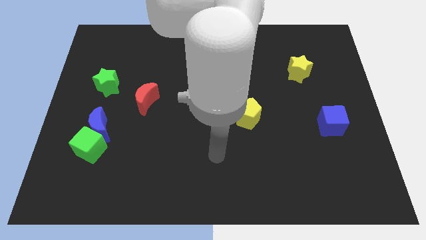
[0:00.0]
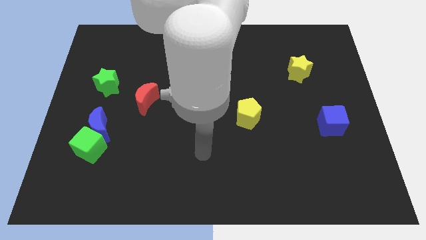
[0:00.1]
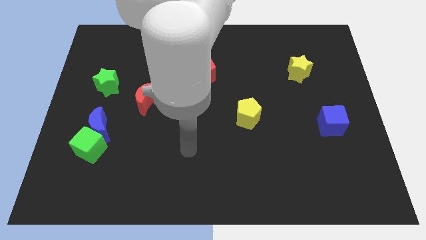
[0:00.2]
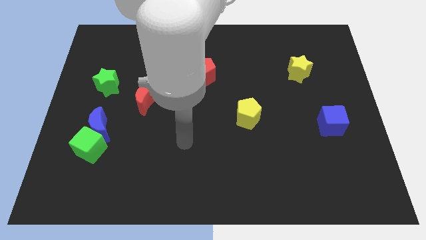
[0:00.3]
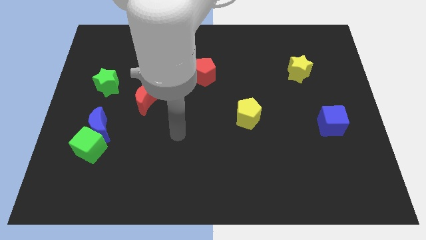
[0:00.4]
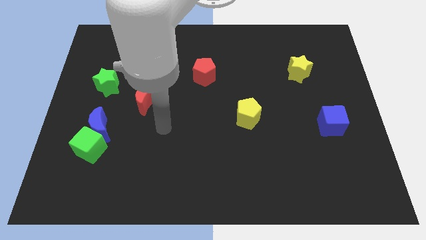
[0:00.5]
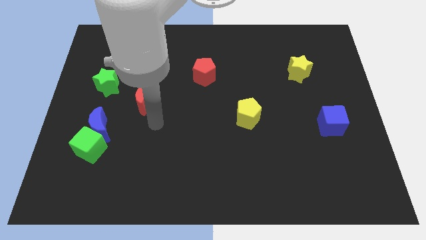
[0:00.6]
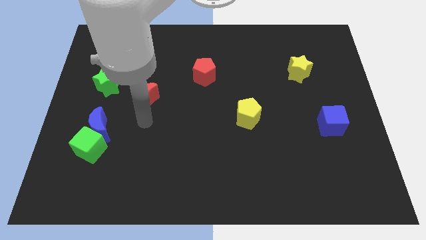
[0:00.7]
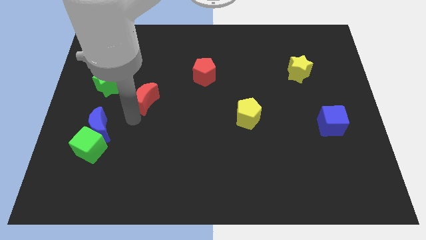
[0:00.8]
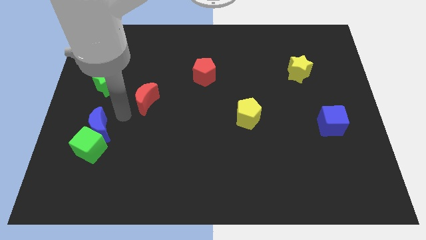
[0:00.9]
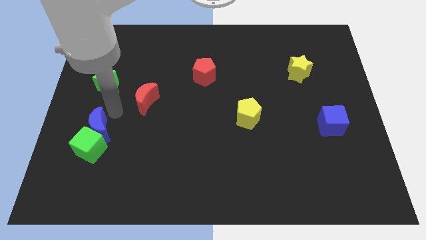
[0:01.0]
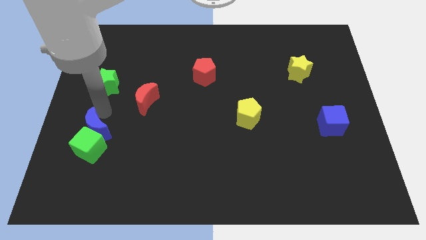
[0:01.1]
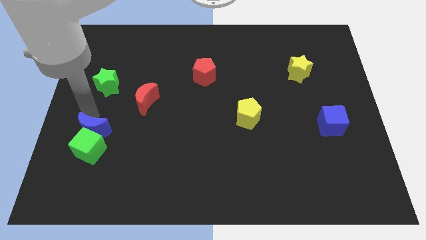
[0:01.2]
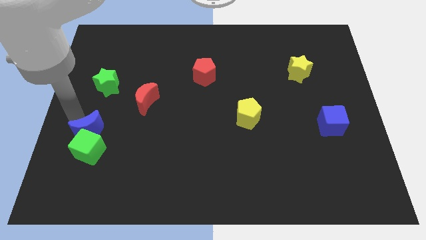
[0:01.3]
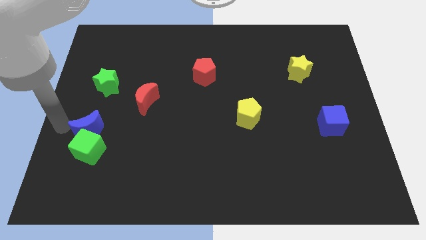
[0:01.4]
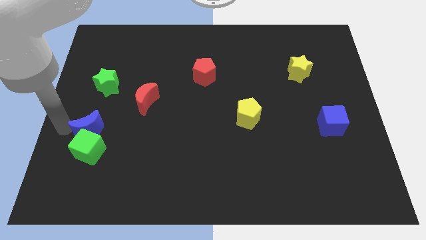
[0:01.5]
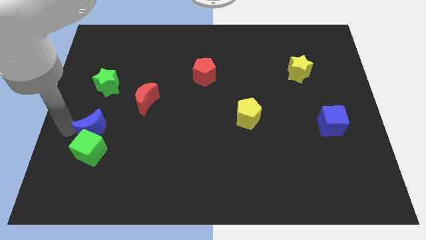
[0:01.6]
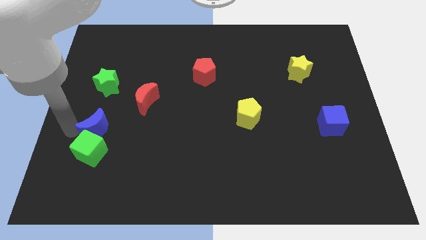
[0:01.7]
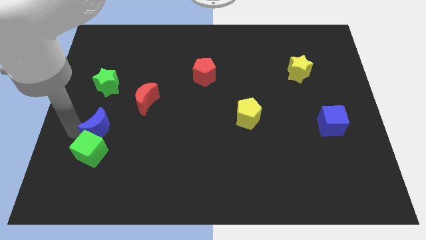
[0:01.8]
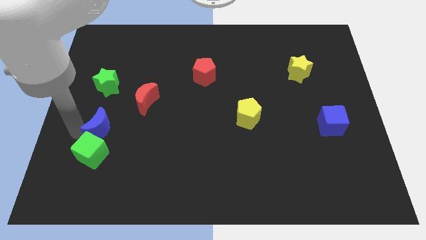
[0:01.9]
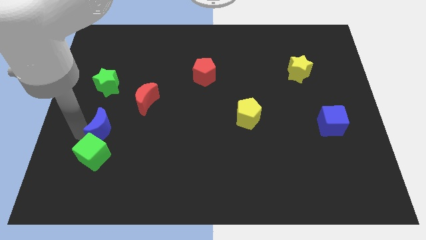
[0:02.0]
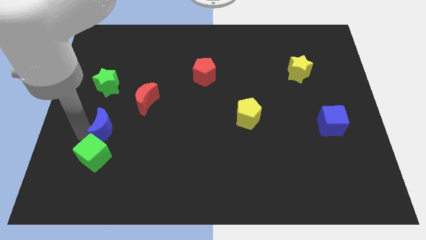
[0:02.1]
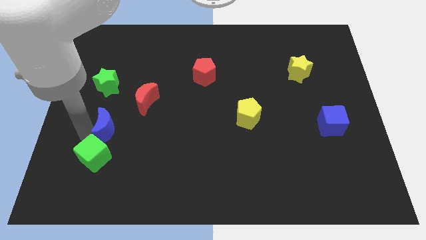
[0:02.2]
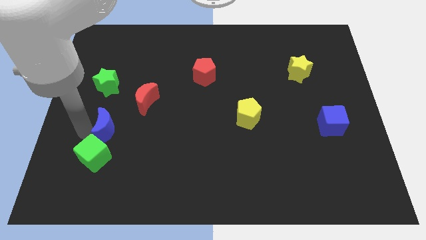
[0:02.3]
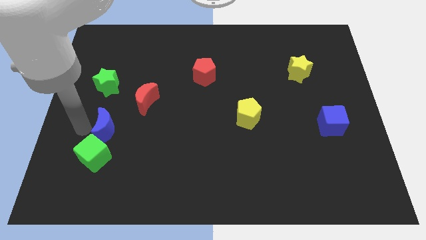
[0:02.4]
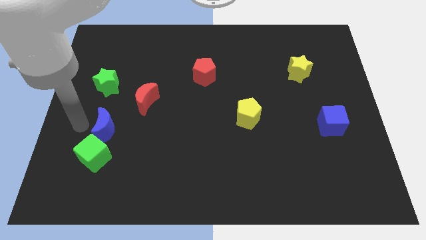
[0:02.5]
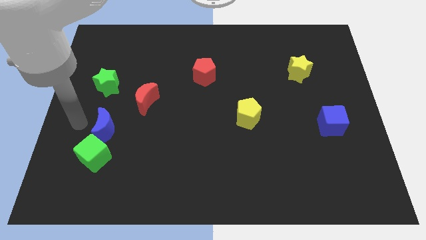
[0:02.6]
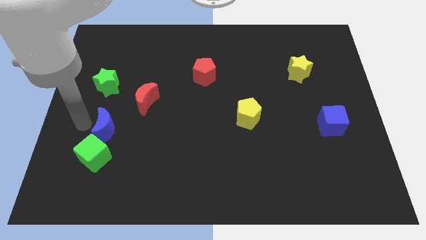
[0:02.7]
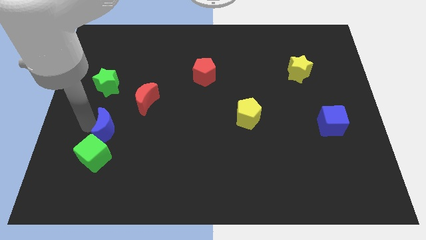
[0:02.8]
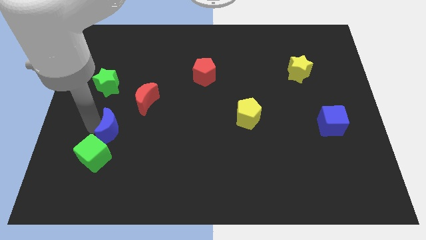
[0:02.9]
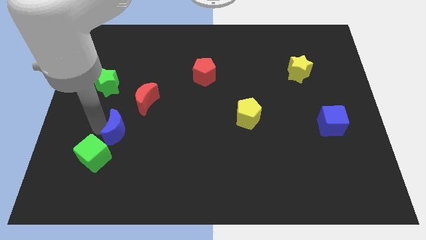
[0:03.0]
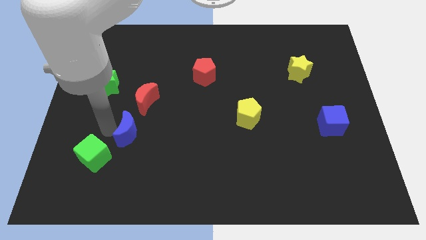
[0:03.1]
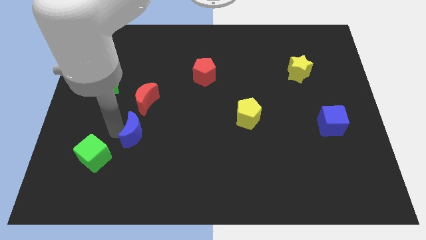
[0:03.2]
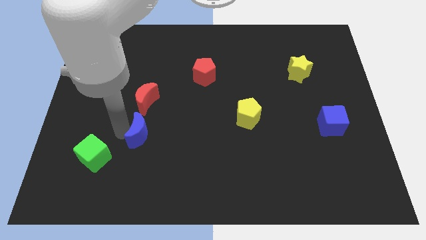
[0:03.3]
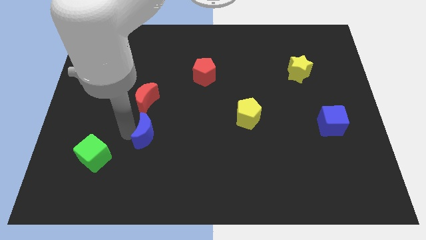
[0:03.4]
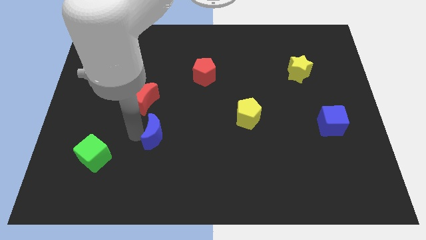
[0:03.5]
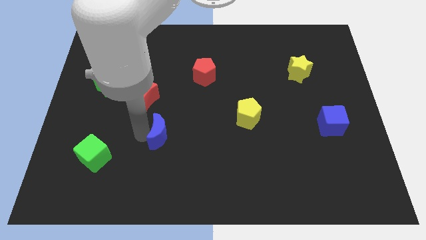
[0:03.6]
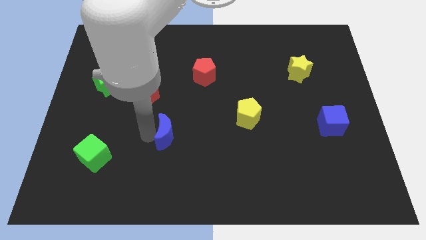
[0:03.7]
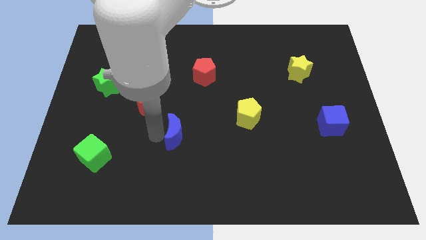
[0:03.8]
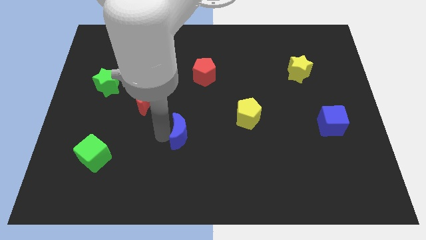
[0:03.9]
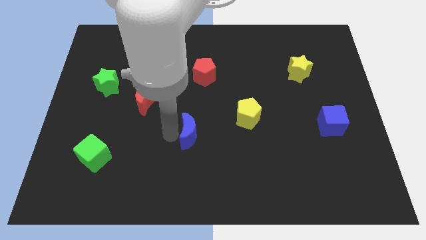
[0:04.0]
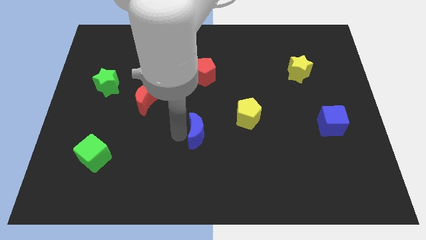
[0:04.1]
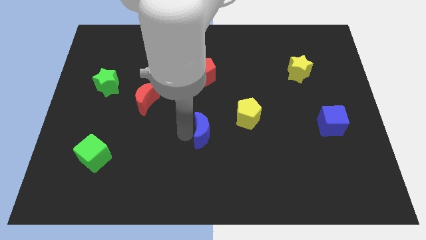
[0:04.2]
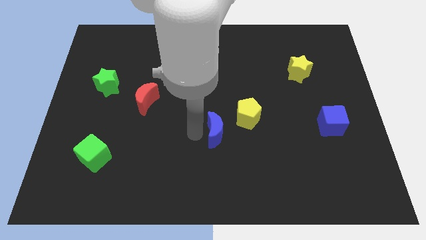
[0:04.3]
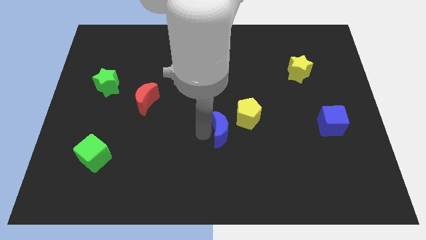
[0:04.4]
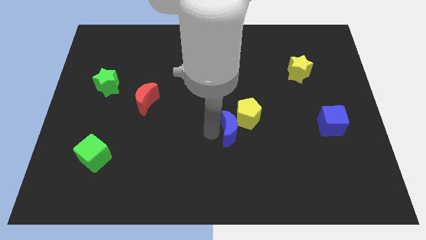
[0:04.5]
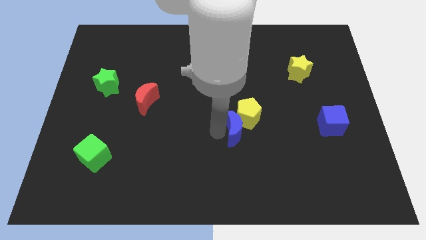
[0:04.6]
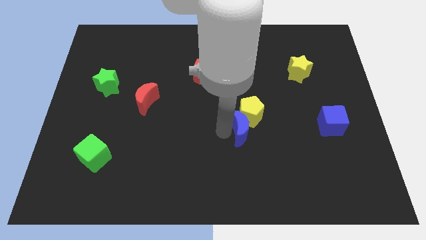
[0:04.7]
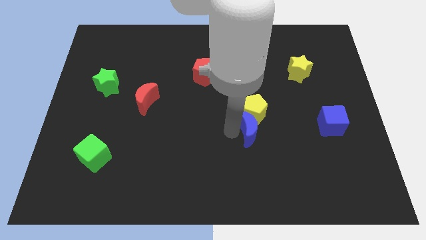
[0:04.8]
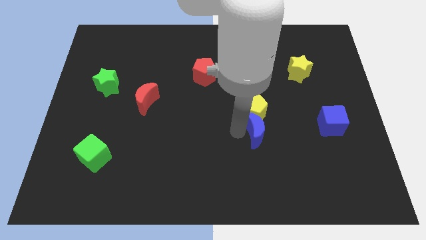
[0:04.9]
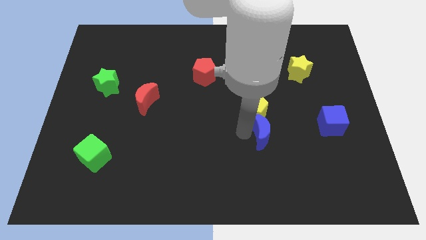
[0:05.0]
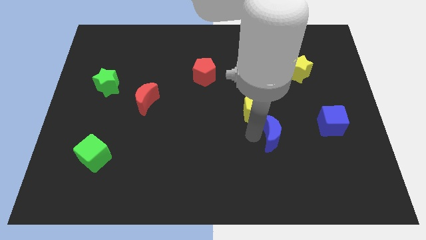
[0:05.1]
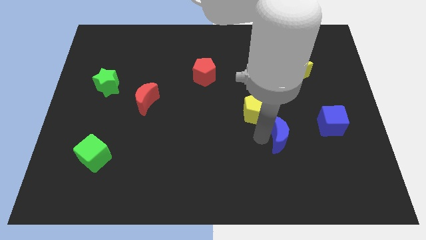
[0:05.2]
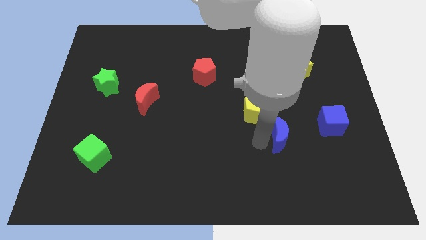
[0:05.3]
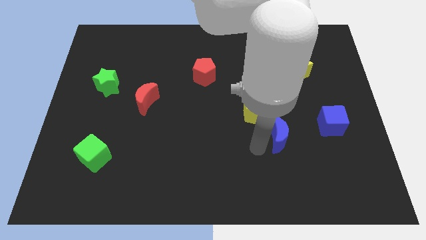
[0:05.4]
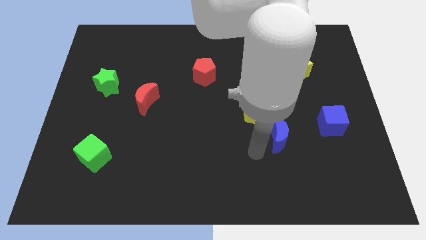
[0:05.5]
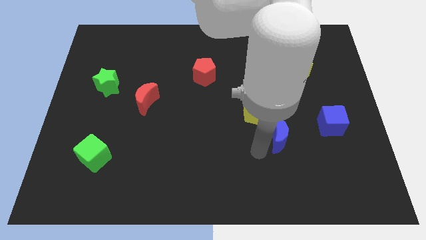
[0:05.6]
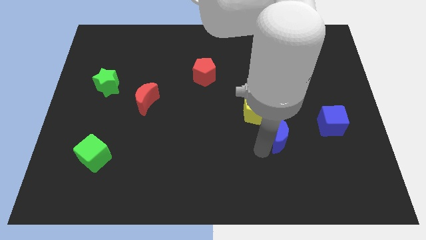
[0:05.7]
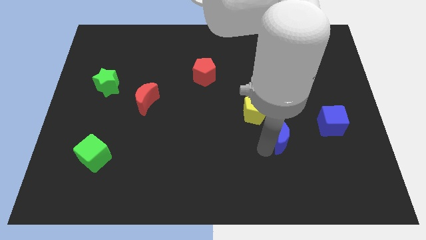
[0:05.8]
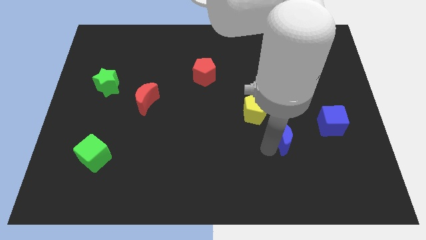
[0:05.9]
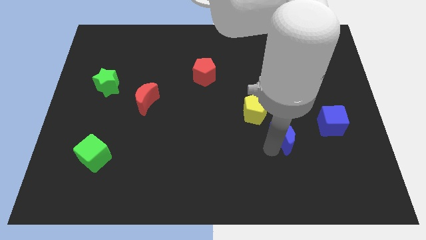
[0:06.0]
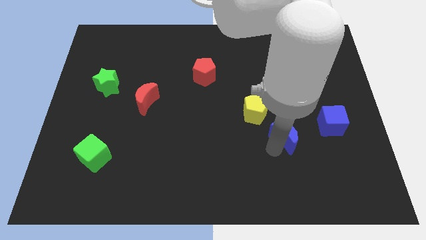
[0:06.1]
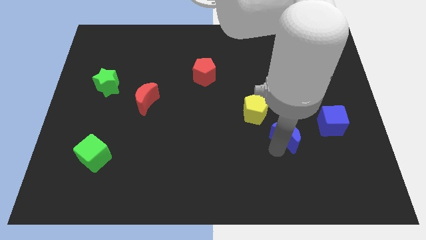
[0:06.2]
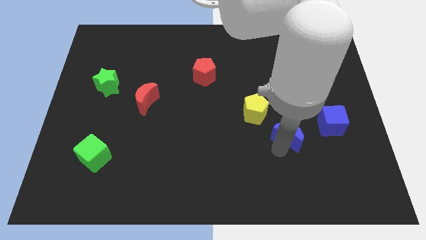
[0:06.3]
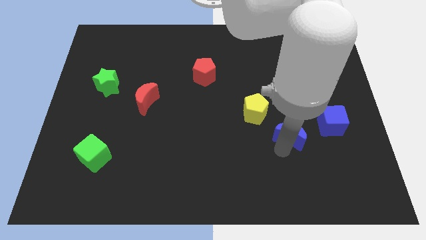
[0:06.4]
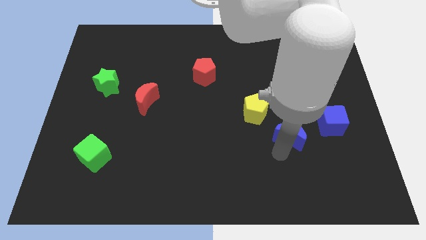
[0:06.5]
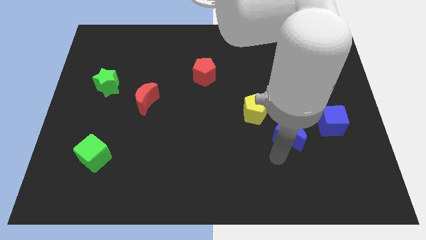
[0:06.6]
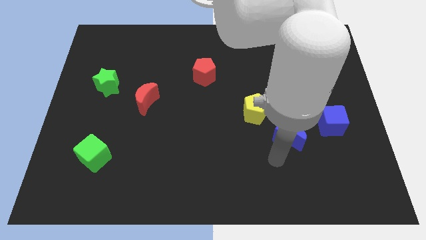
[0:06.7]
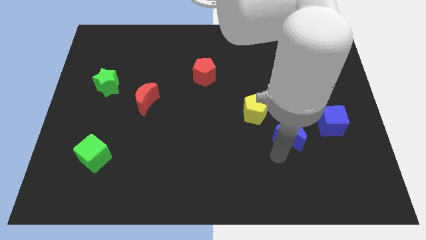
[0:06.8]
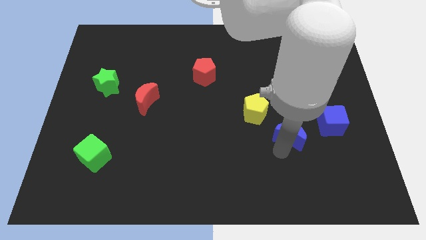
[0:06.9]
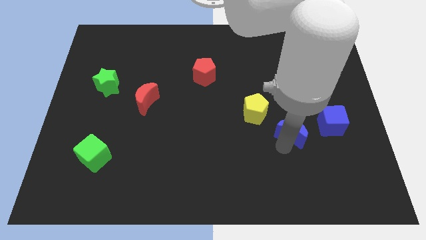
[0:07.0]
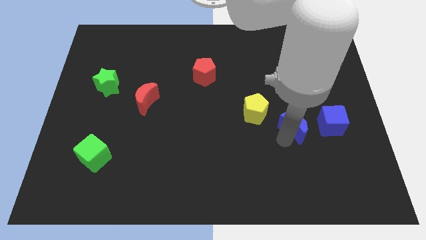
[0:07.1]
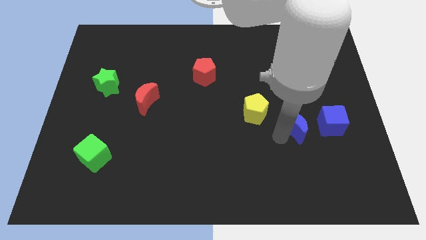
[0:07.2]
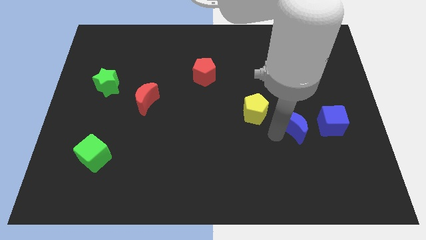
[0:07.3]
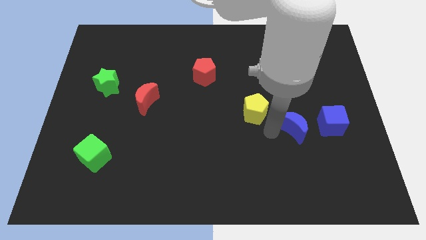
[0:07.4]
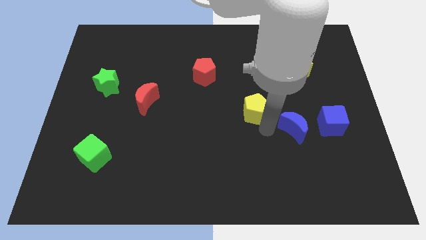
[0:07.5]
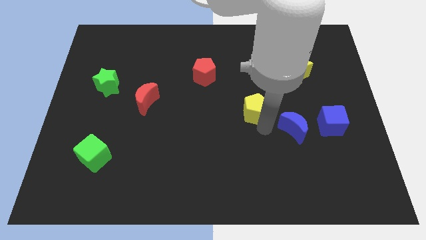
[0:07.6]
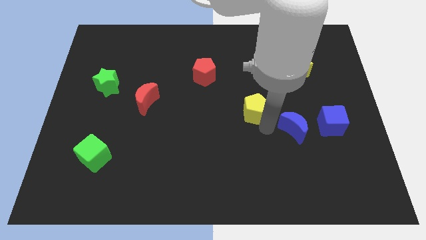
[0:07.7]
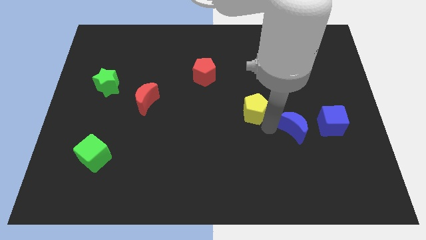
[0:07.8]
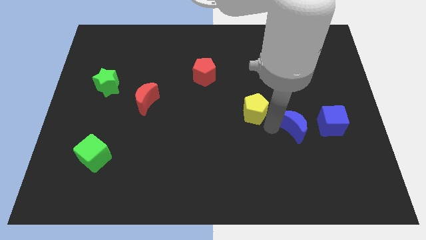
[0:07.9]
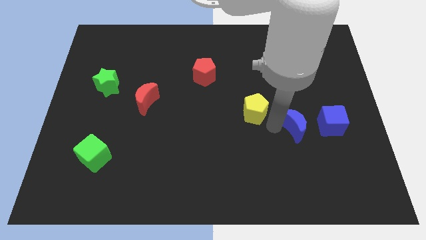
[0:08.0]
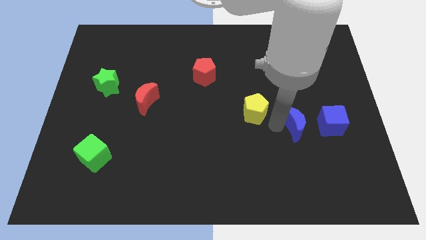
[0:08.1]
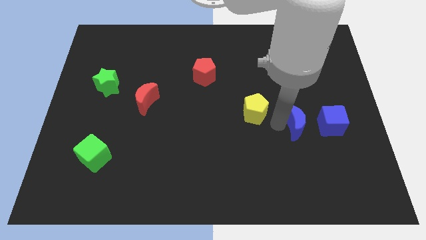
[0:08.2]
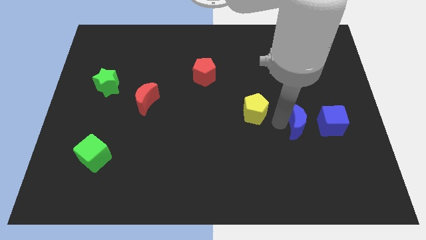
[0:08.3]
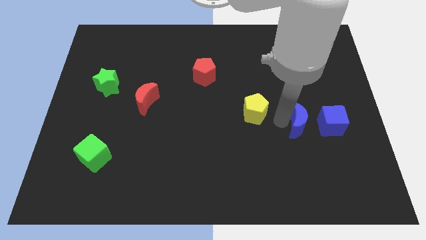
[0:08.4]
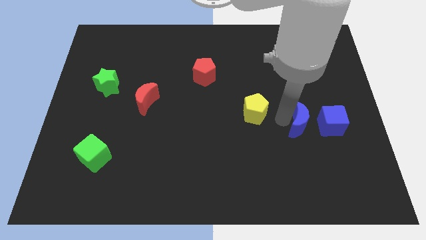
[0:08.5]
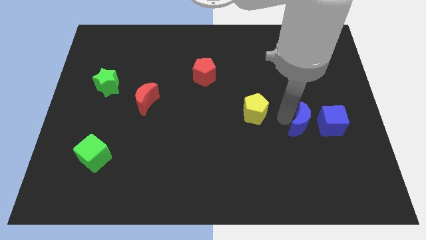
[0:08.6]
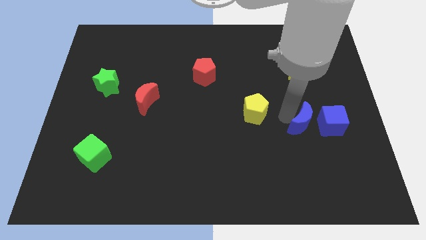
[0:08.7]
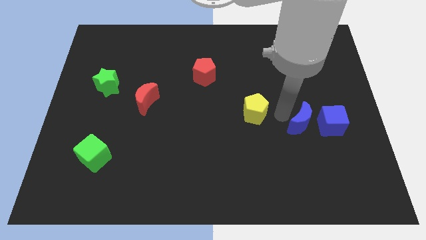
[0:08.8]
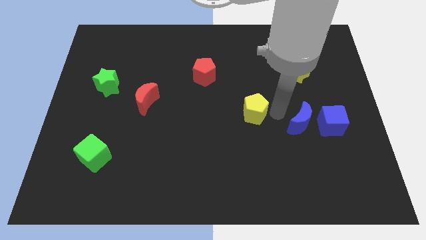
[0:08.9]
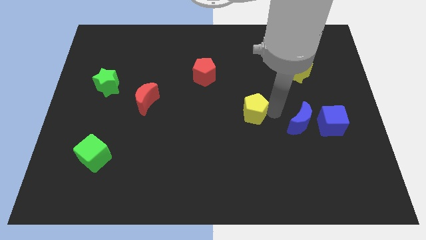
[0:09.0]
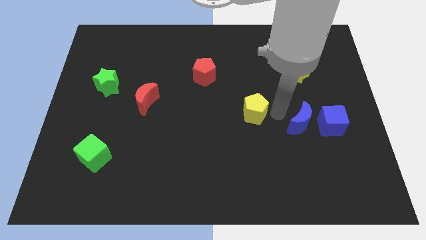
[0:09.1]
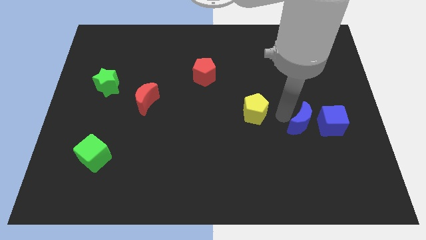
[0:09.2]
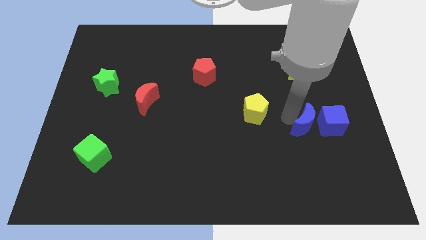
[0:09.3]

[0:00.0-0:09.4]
move the blue moon next to the blue cube
